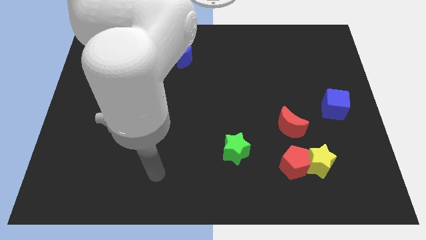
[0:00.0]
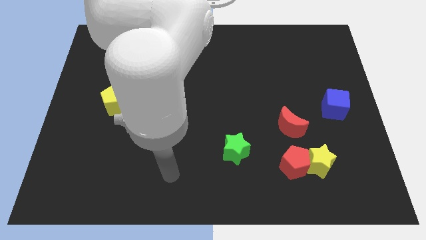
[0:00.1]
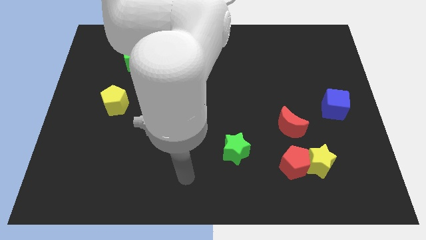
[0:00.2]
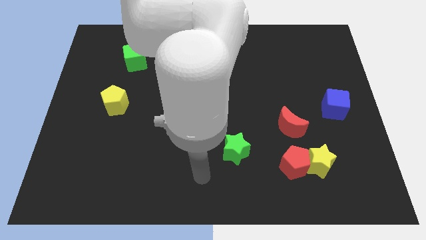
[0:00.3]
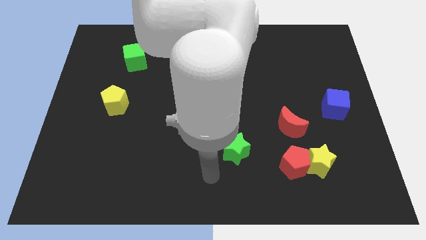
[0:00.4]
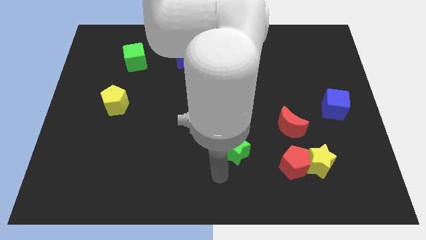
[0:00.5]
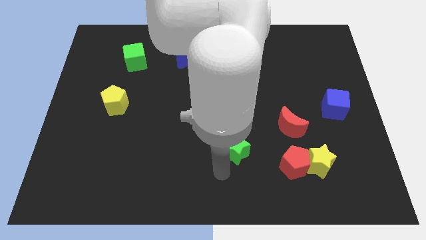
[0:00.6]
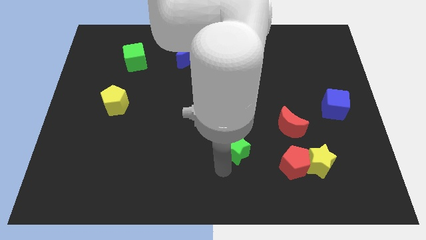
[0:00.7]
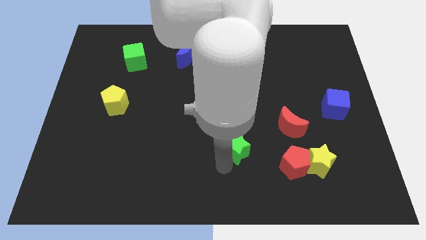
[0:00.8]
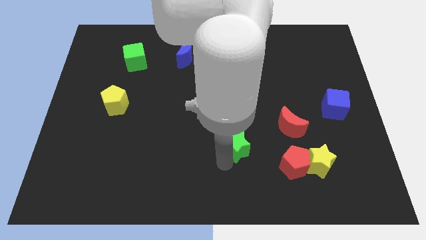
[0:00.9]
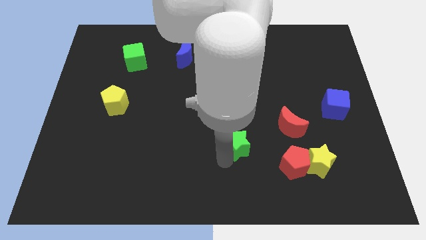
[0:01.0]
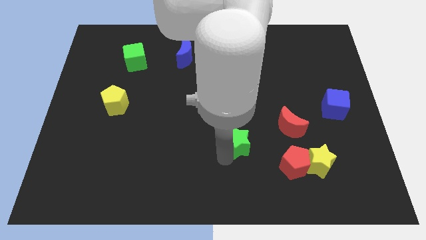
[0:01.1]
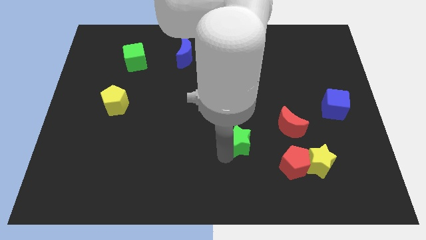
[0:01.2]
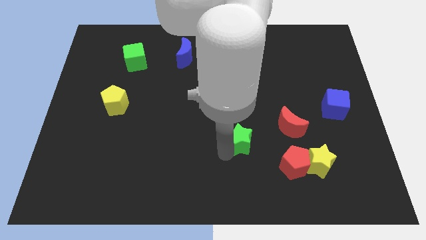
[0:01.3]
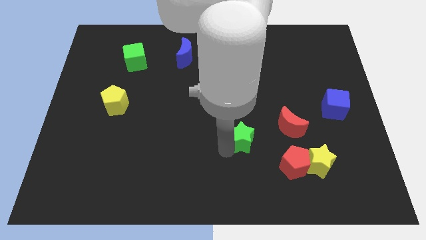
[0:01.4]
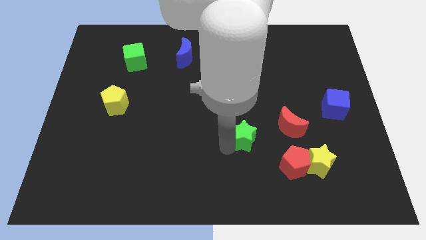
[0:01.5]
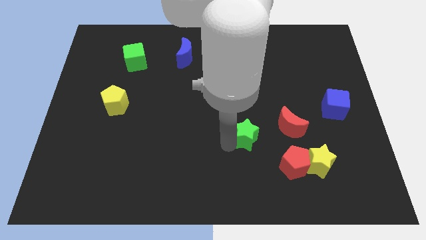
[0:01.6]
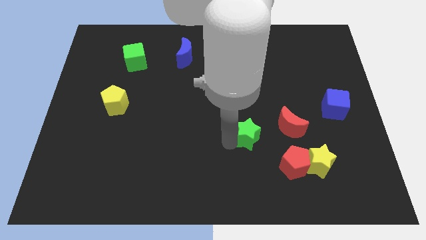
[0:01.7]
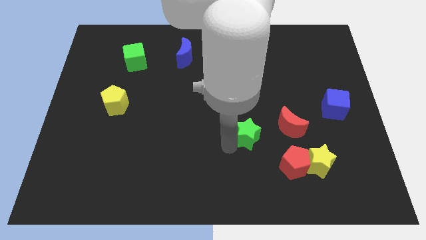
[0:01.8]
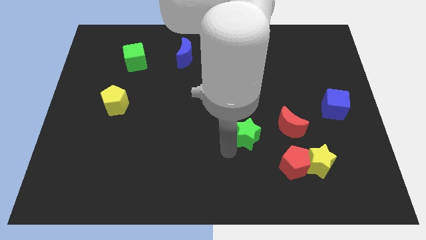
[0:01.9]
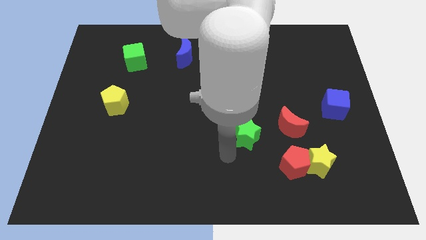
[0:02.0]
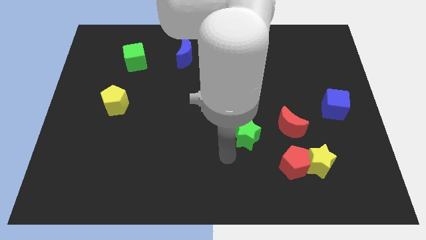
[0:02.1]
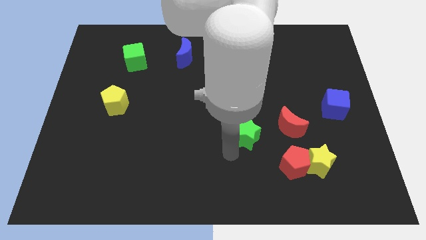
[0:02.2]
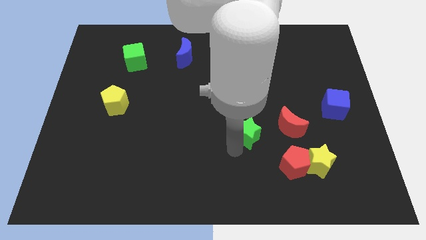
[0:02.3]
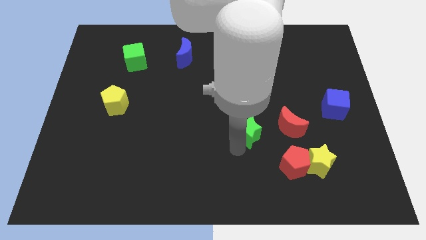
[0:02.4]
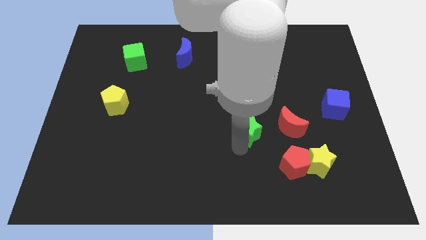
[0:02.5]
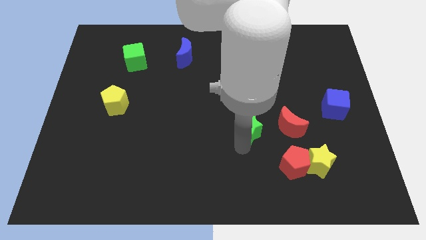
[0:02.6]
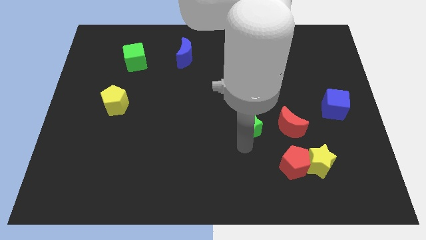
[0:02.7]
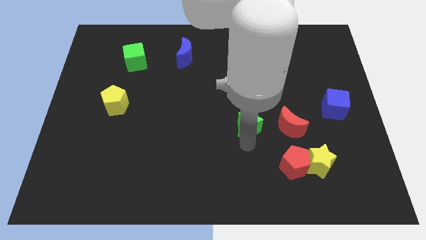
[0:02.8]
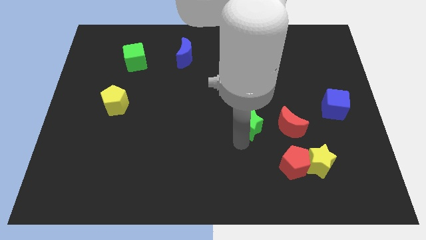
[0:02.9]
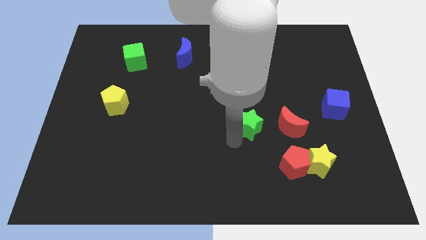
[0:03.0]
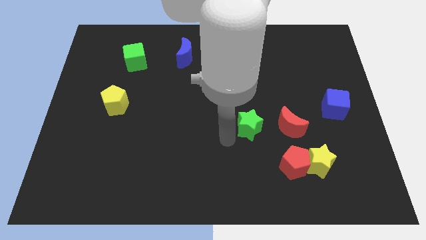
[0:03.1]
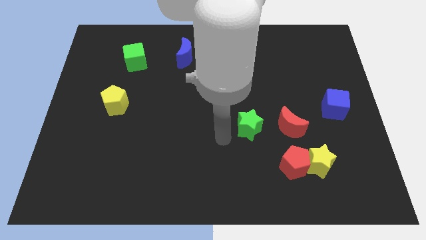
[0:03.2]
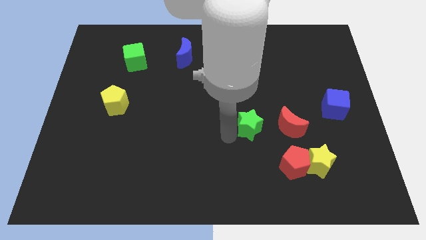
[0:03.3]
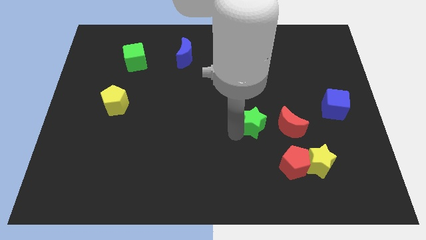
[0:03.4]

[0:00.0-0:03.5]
slightly slide the green star upwards and then to the right

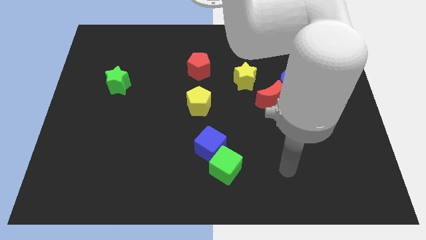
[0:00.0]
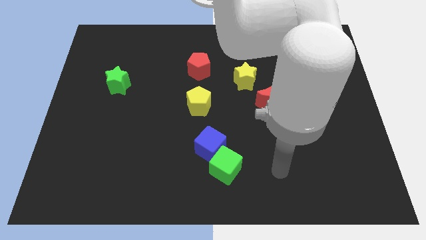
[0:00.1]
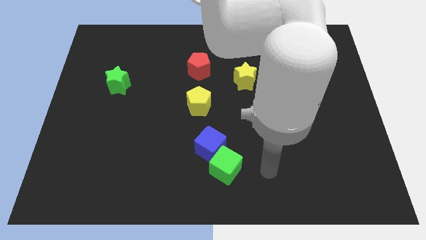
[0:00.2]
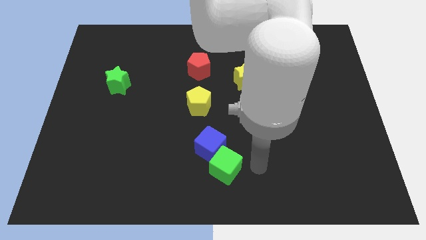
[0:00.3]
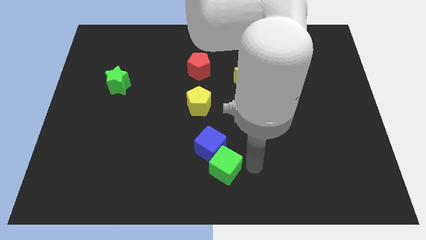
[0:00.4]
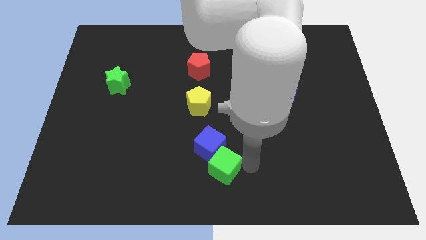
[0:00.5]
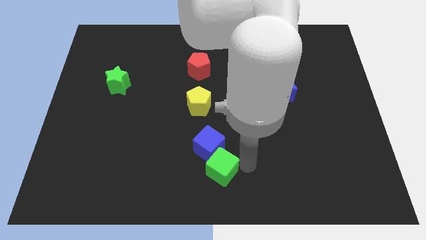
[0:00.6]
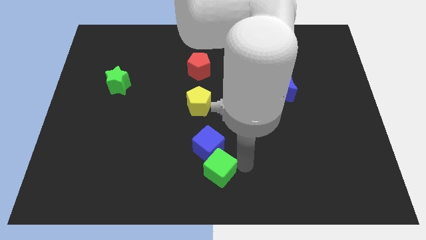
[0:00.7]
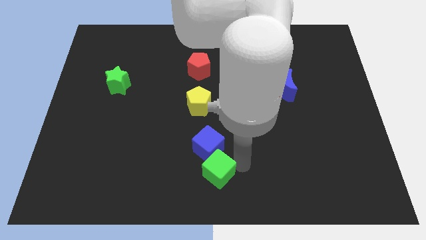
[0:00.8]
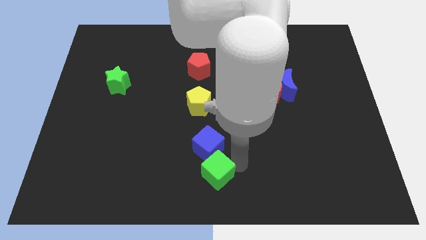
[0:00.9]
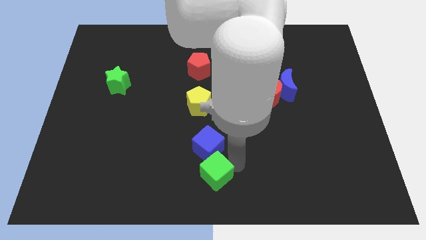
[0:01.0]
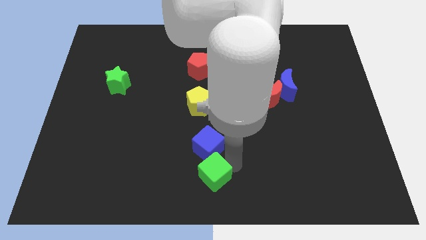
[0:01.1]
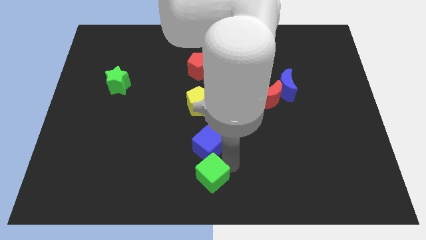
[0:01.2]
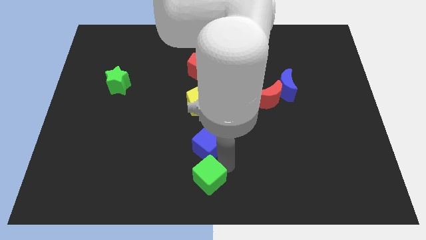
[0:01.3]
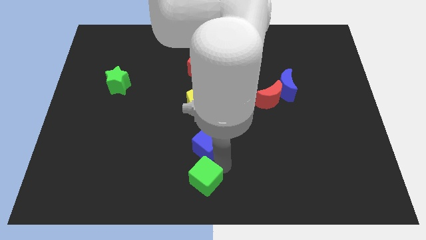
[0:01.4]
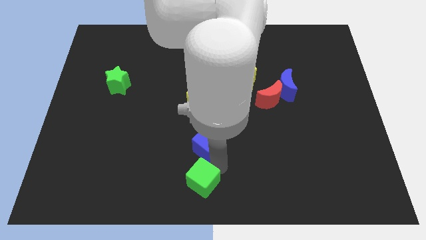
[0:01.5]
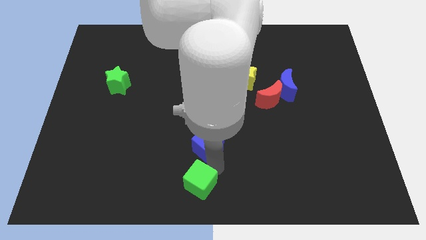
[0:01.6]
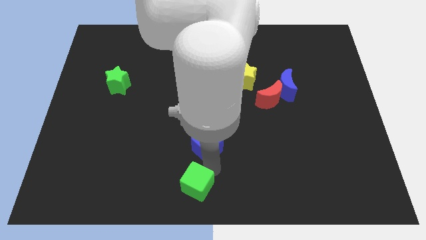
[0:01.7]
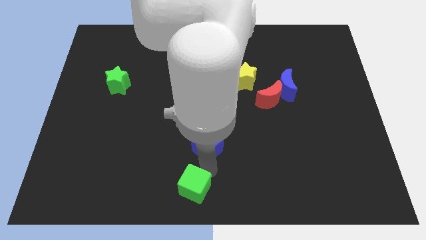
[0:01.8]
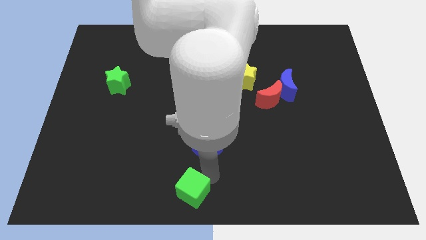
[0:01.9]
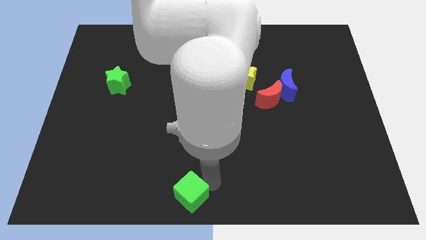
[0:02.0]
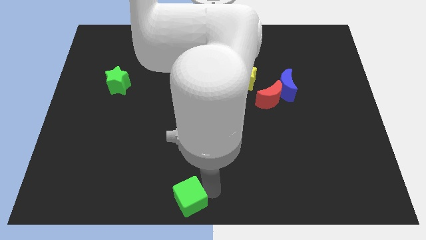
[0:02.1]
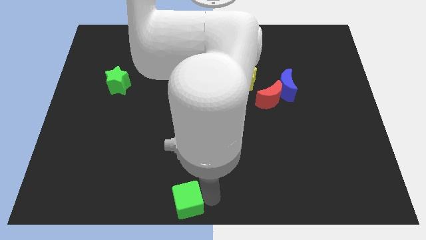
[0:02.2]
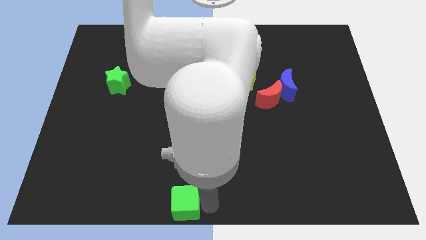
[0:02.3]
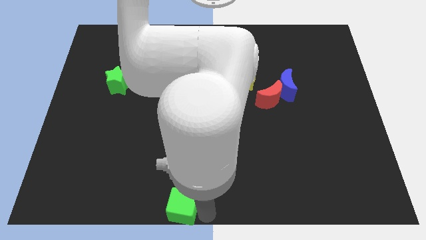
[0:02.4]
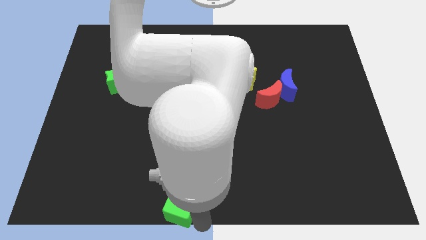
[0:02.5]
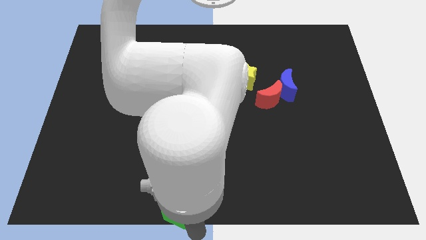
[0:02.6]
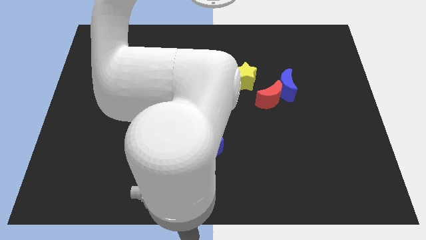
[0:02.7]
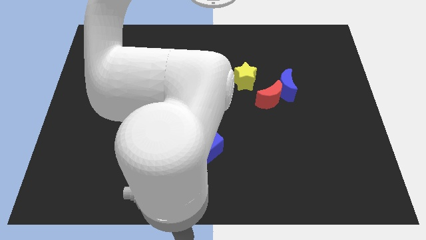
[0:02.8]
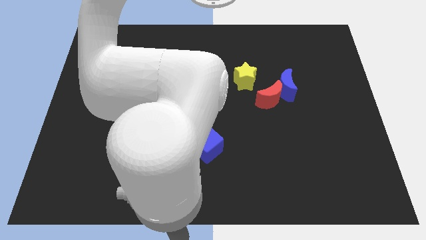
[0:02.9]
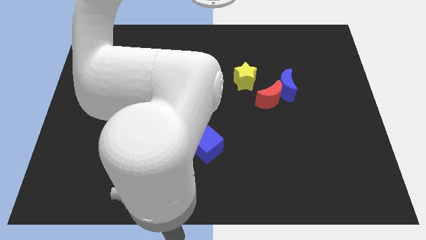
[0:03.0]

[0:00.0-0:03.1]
slide the green cube somewhat left

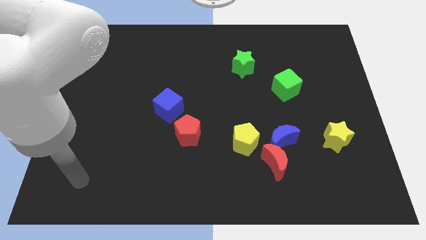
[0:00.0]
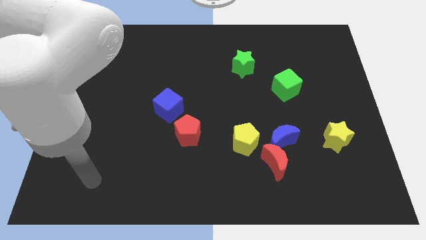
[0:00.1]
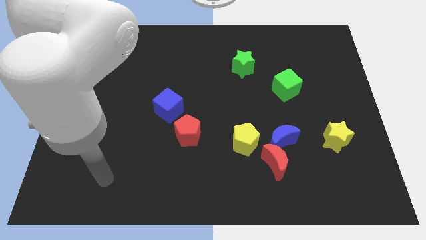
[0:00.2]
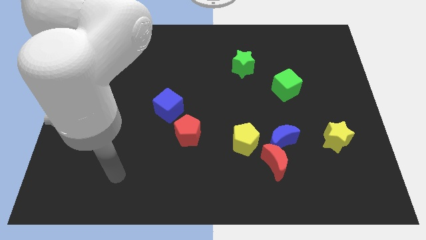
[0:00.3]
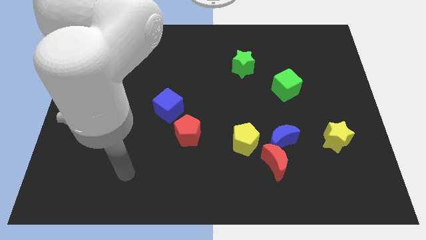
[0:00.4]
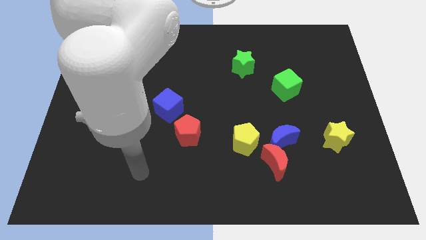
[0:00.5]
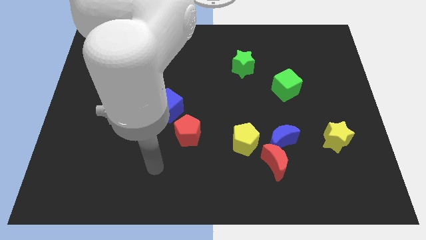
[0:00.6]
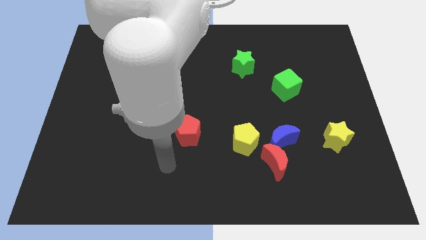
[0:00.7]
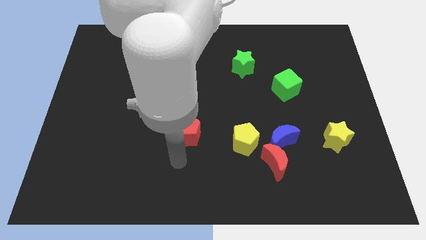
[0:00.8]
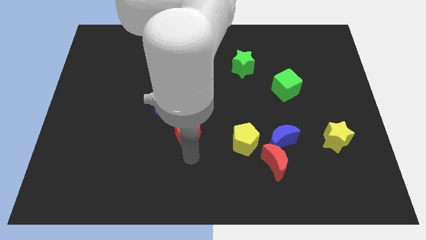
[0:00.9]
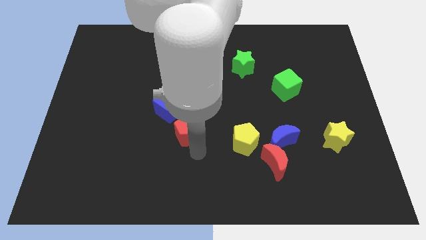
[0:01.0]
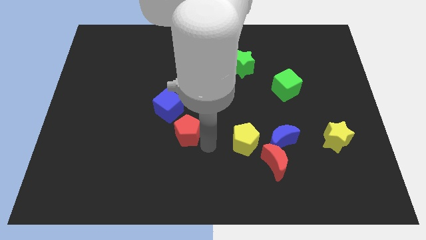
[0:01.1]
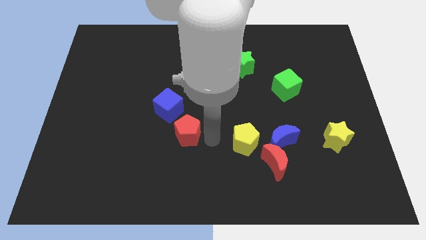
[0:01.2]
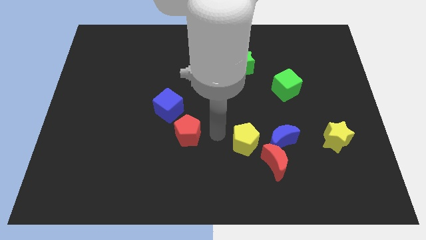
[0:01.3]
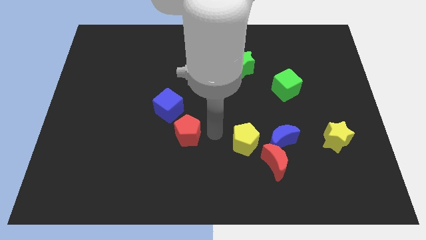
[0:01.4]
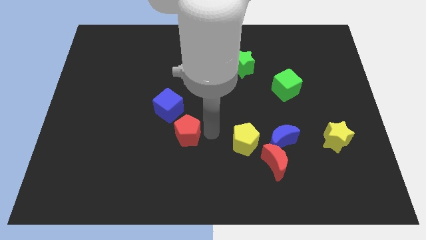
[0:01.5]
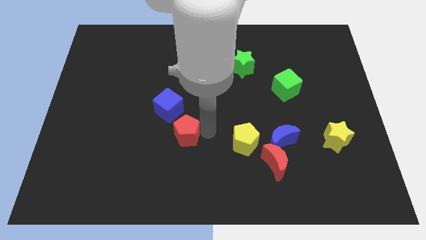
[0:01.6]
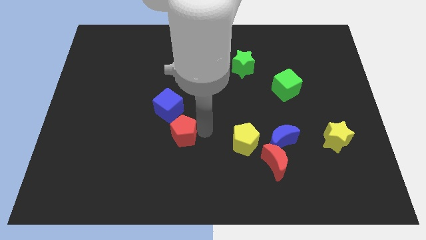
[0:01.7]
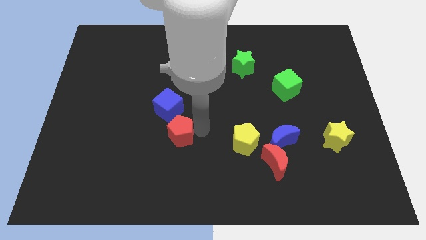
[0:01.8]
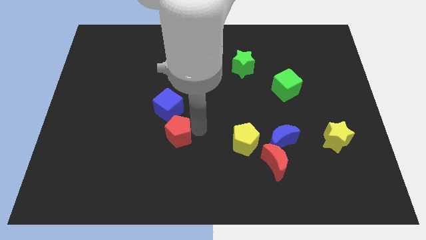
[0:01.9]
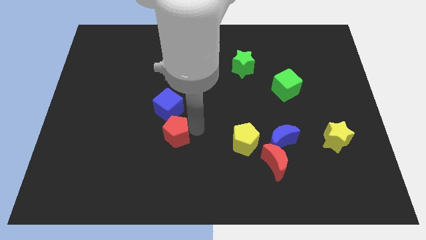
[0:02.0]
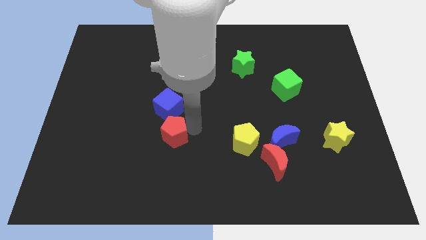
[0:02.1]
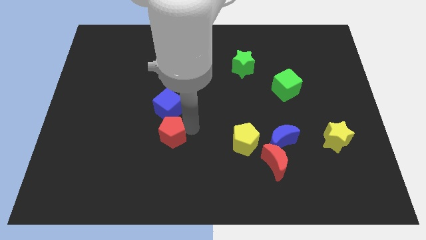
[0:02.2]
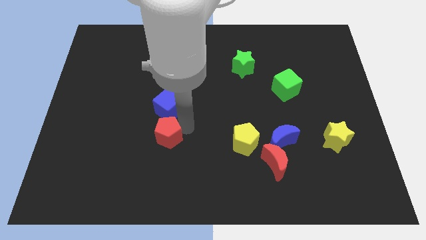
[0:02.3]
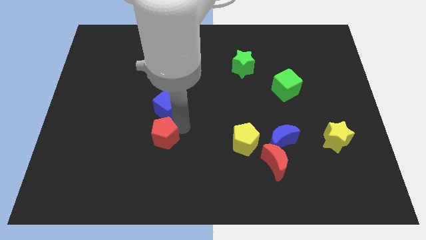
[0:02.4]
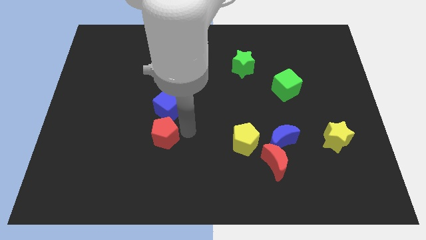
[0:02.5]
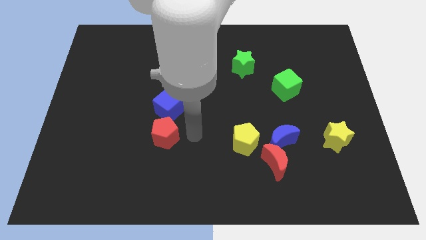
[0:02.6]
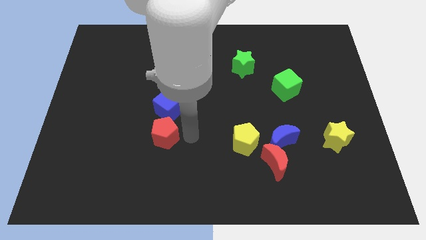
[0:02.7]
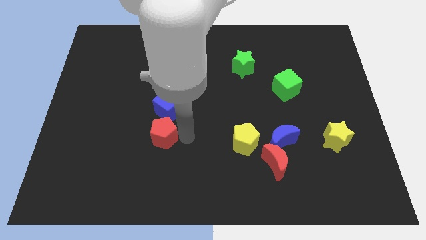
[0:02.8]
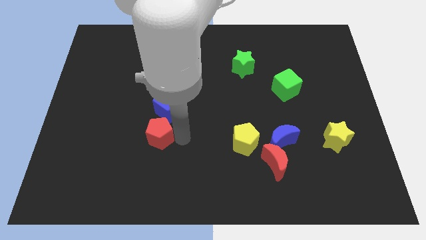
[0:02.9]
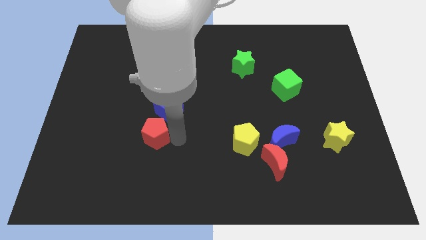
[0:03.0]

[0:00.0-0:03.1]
move the red pentagon to the left a little
